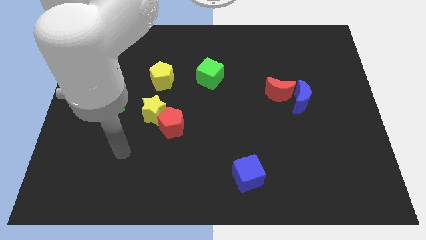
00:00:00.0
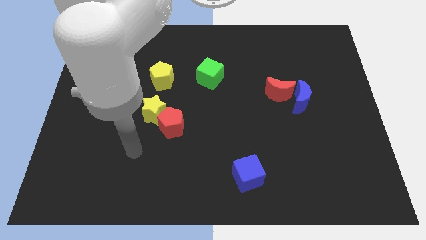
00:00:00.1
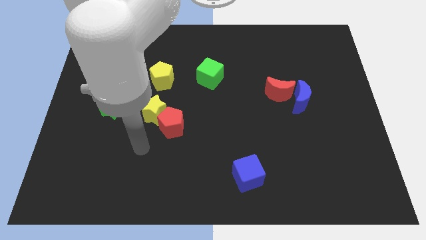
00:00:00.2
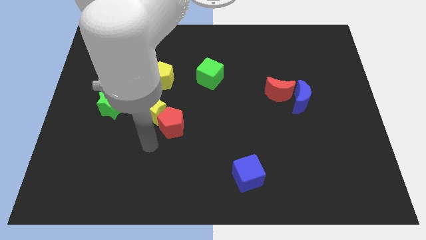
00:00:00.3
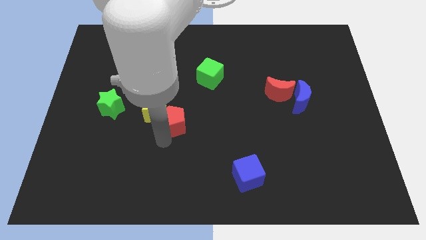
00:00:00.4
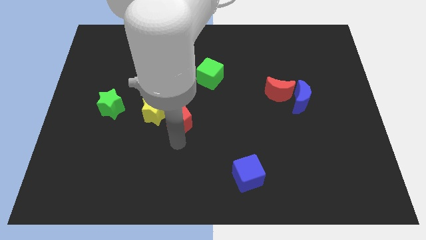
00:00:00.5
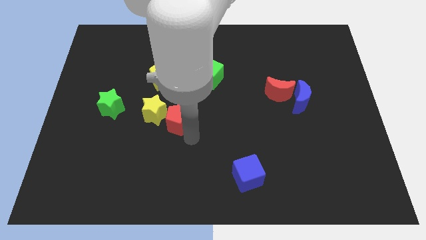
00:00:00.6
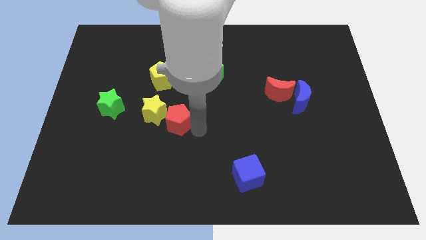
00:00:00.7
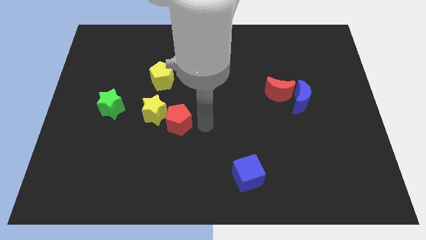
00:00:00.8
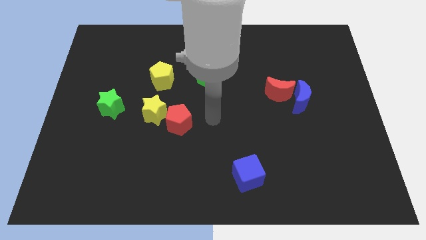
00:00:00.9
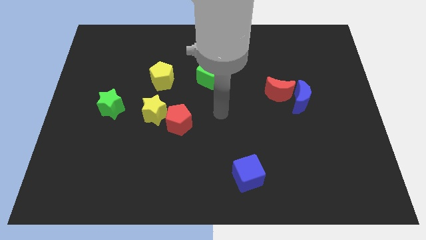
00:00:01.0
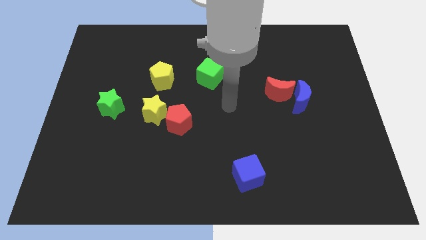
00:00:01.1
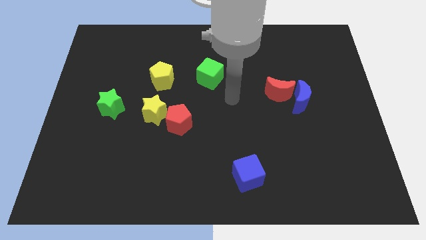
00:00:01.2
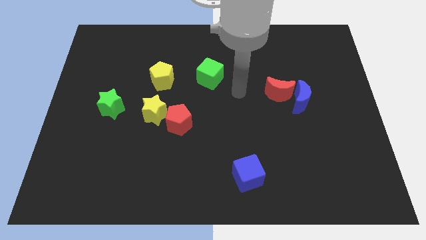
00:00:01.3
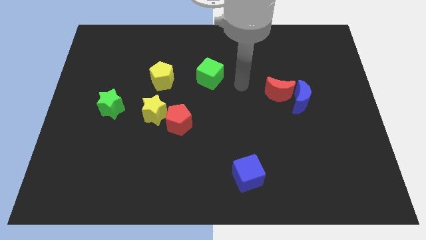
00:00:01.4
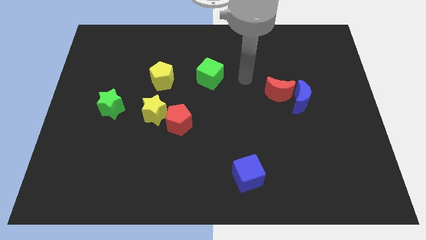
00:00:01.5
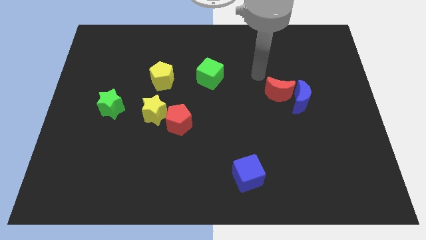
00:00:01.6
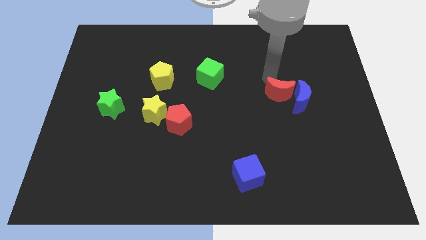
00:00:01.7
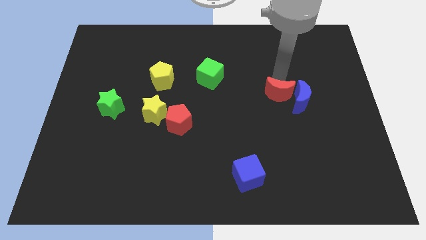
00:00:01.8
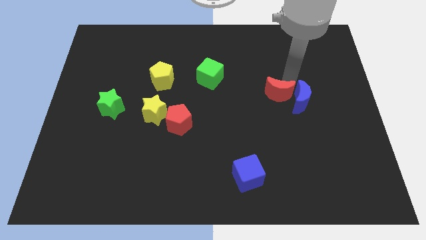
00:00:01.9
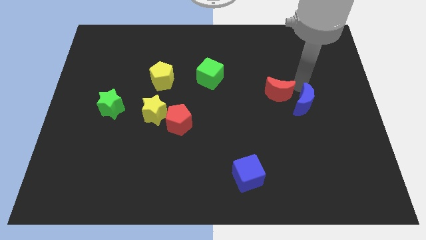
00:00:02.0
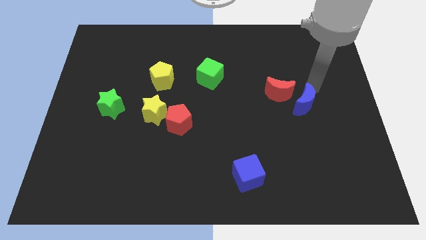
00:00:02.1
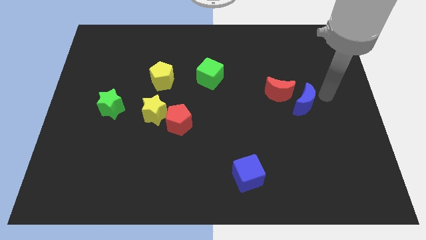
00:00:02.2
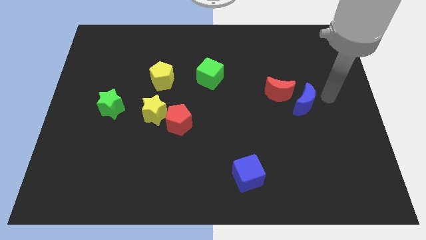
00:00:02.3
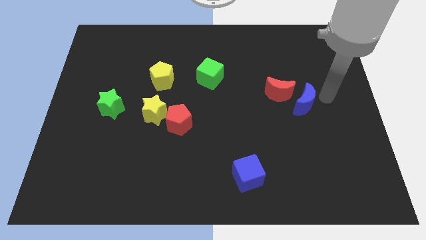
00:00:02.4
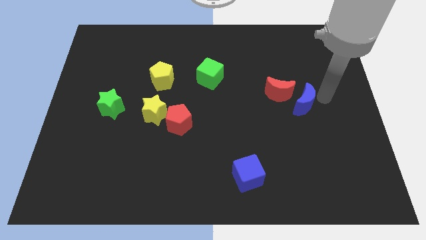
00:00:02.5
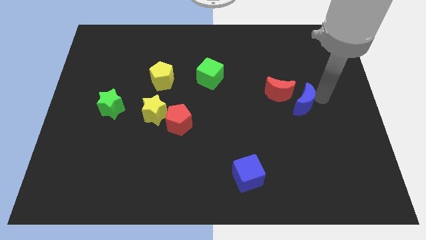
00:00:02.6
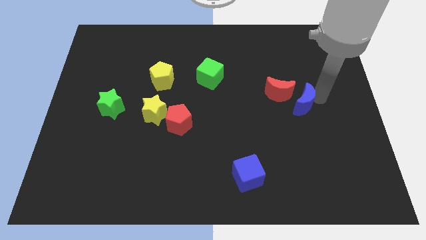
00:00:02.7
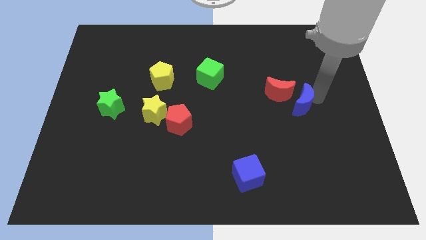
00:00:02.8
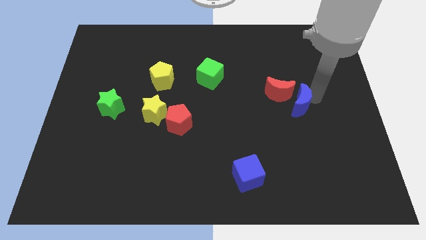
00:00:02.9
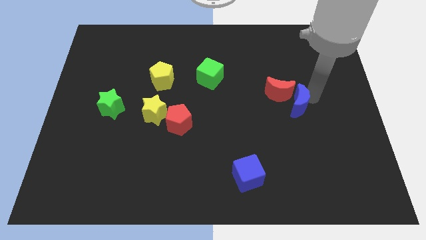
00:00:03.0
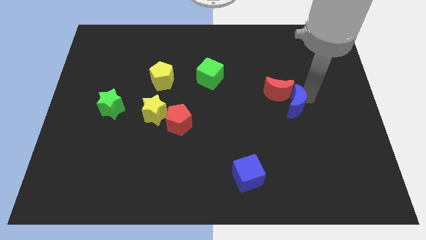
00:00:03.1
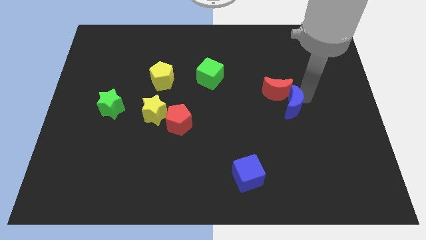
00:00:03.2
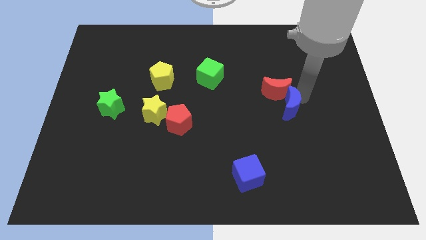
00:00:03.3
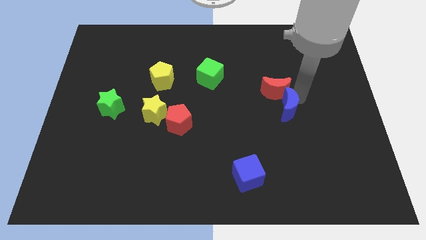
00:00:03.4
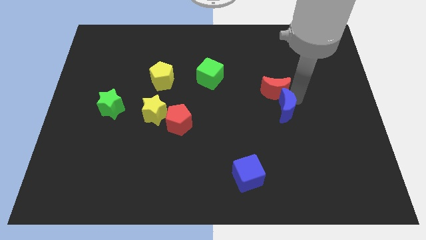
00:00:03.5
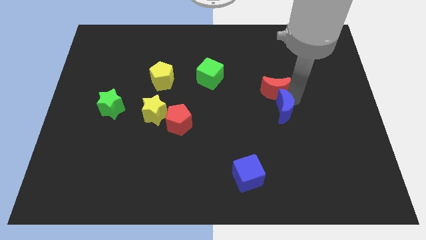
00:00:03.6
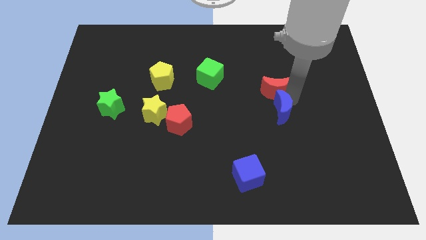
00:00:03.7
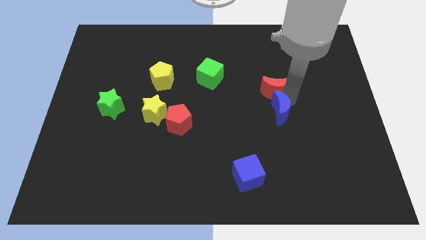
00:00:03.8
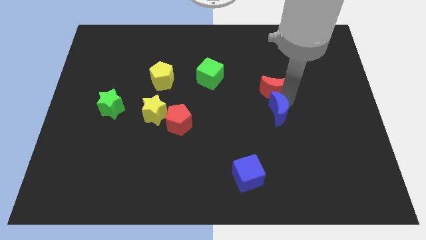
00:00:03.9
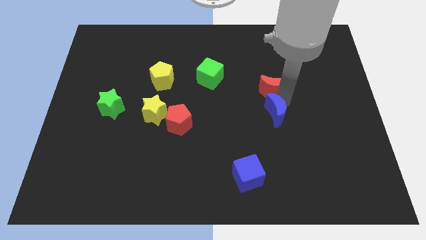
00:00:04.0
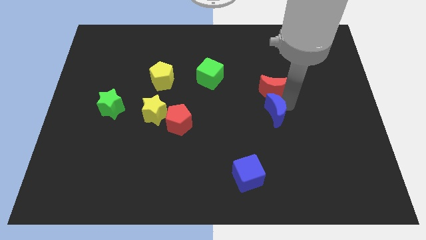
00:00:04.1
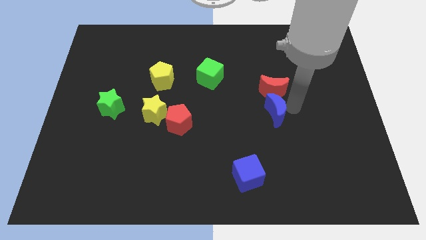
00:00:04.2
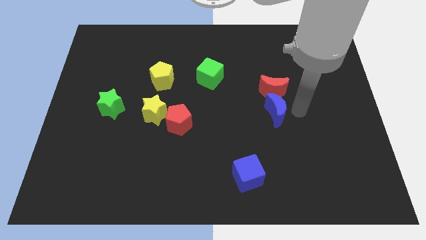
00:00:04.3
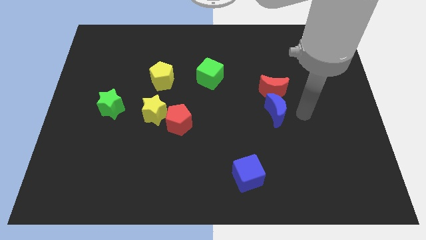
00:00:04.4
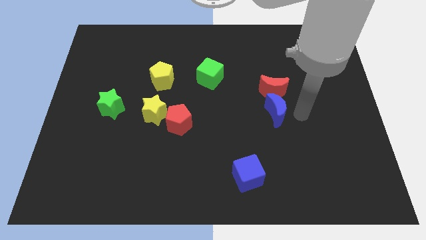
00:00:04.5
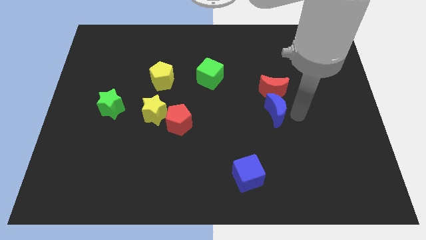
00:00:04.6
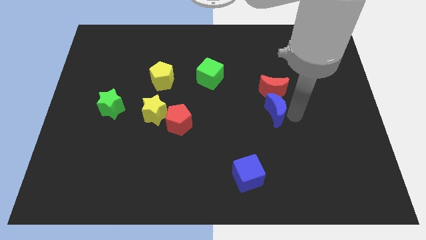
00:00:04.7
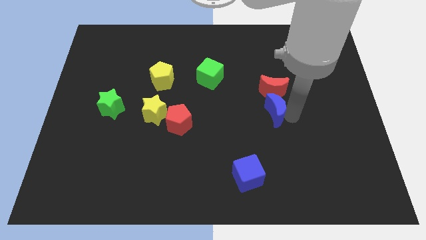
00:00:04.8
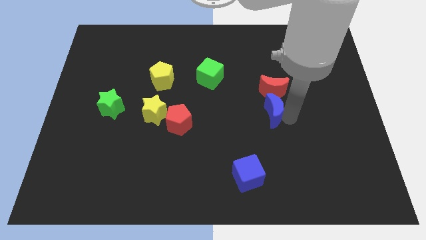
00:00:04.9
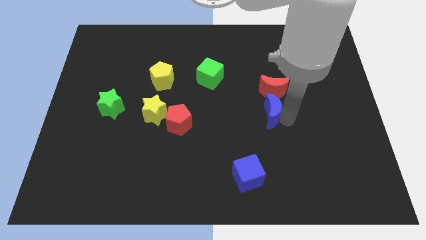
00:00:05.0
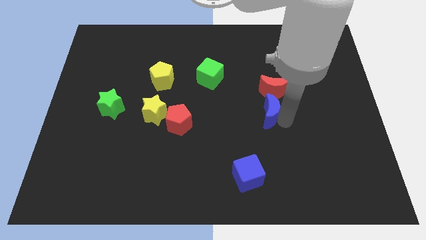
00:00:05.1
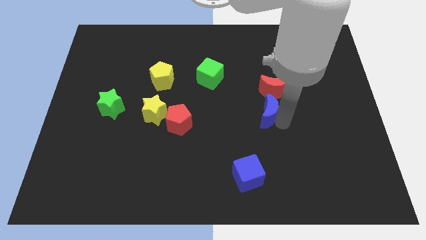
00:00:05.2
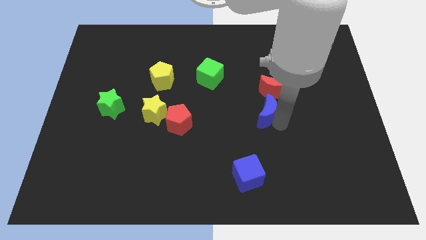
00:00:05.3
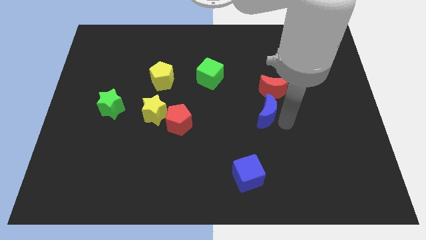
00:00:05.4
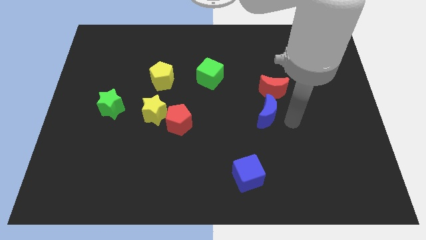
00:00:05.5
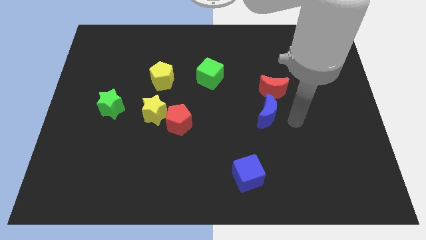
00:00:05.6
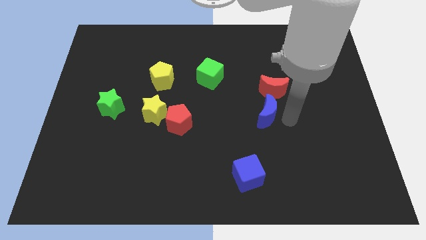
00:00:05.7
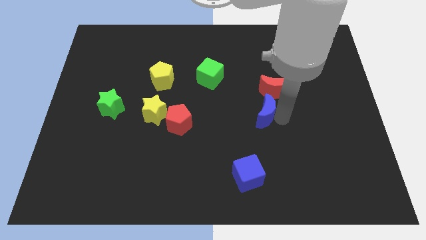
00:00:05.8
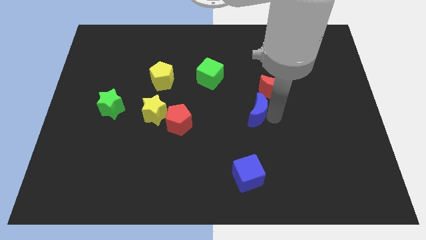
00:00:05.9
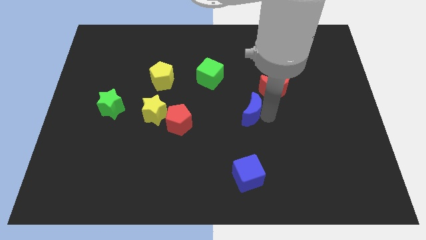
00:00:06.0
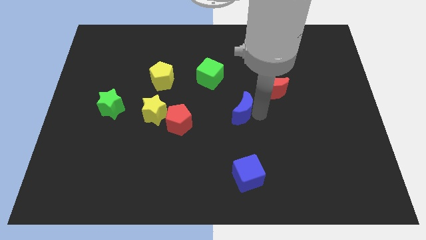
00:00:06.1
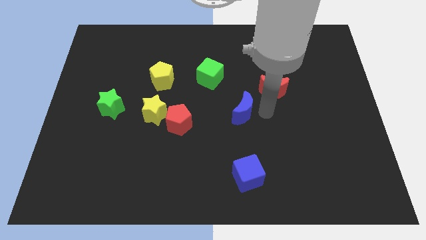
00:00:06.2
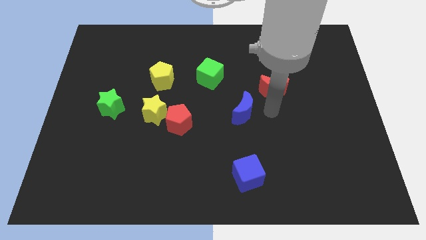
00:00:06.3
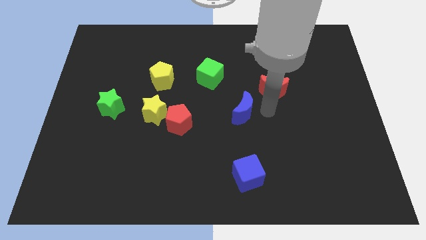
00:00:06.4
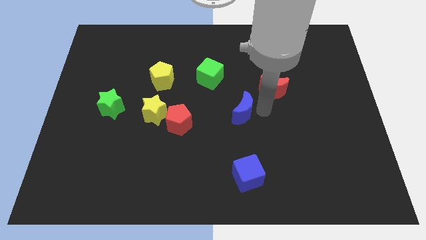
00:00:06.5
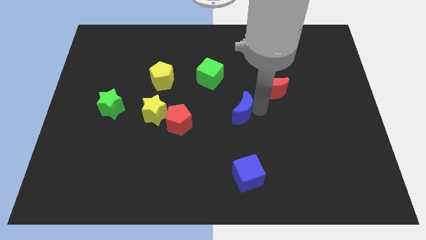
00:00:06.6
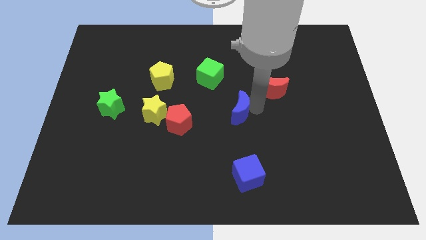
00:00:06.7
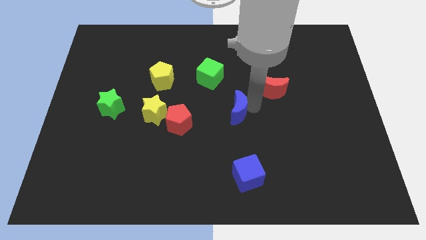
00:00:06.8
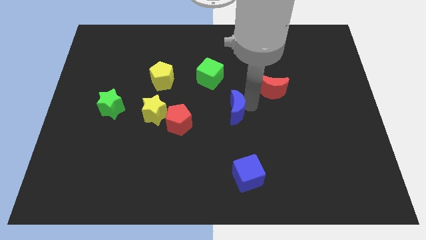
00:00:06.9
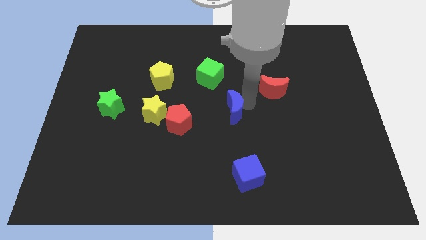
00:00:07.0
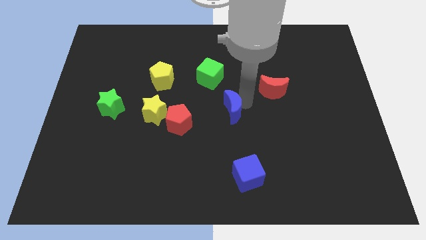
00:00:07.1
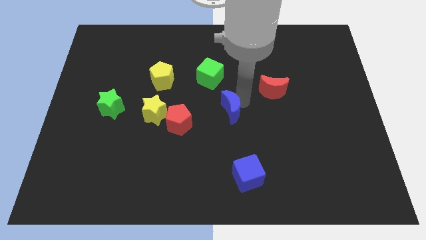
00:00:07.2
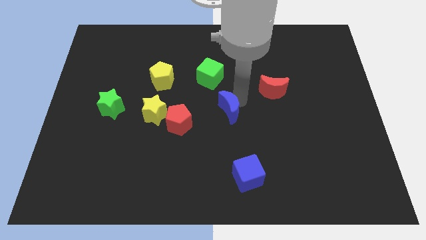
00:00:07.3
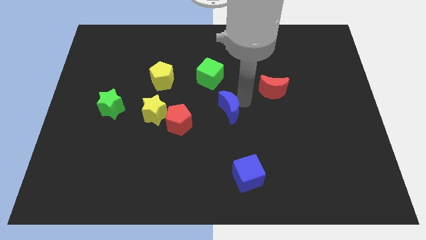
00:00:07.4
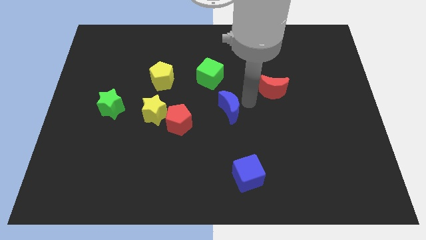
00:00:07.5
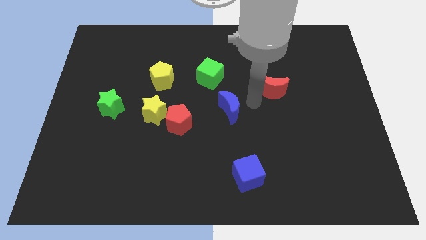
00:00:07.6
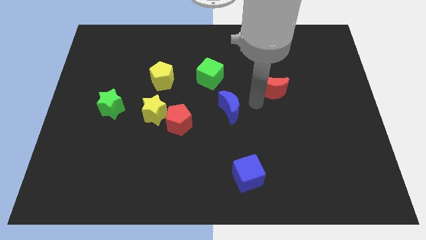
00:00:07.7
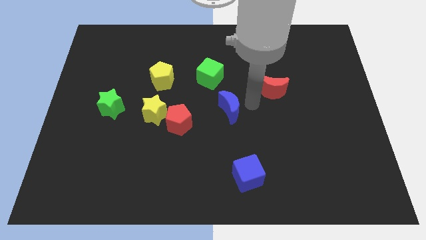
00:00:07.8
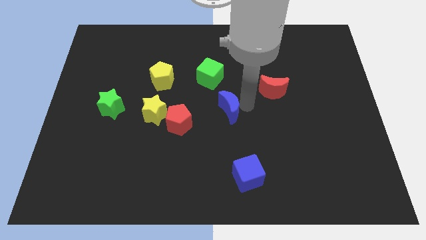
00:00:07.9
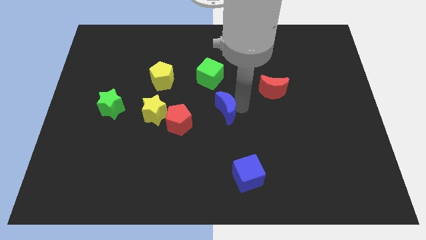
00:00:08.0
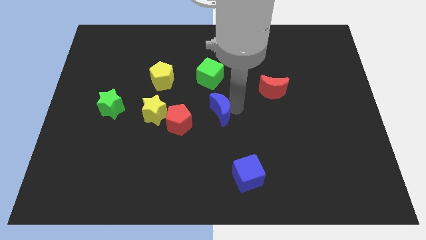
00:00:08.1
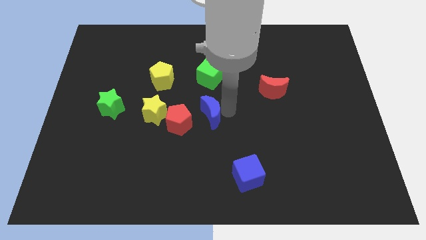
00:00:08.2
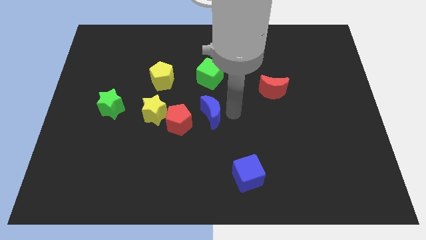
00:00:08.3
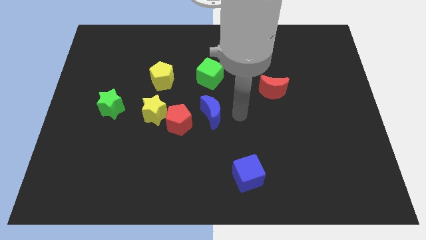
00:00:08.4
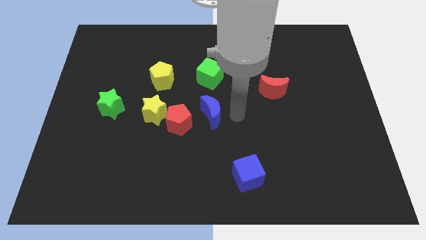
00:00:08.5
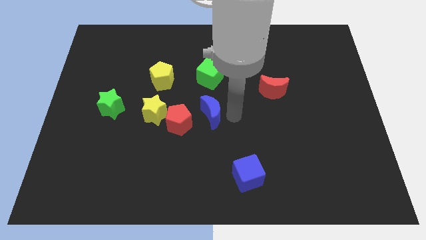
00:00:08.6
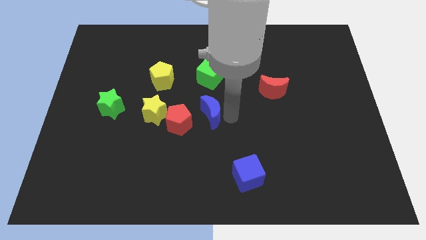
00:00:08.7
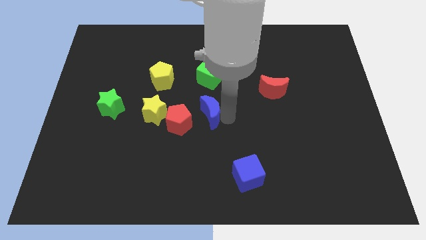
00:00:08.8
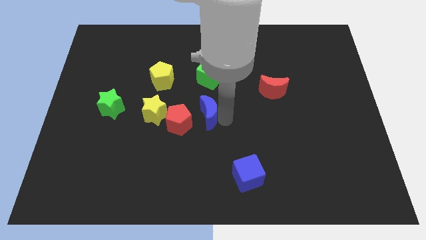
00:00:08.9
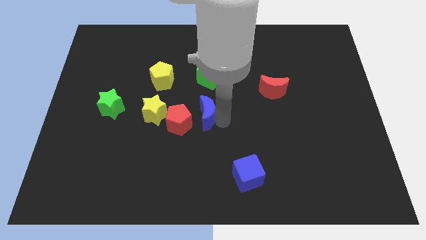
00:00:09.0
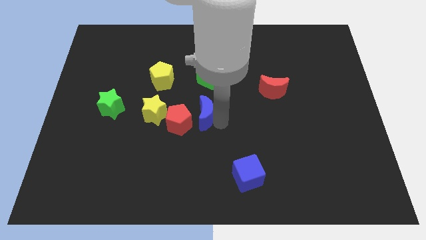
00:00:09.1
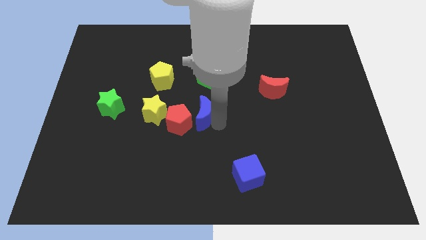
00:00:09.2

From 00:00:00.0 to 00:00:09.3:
move the blue moon to the red pentagon
